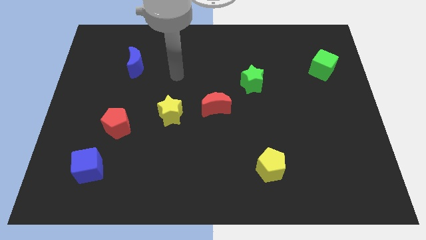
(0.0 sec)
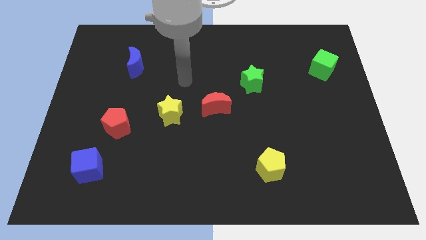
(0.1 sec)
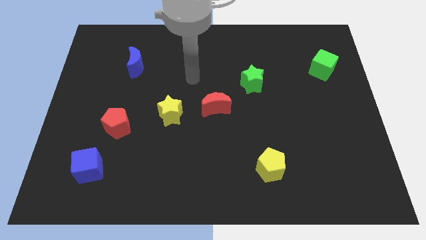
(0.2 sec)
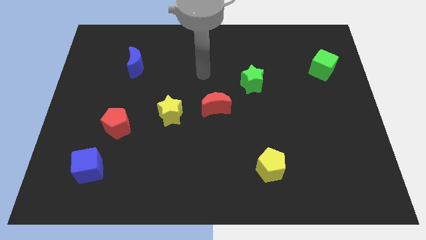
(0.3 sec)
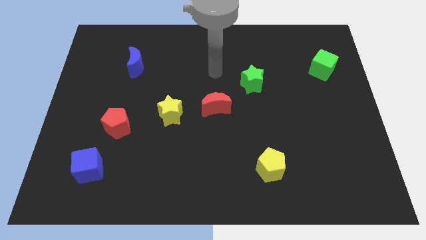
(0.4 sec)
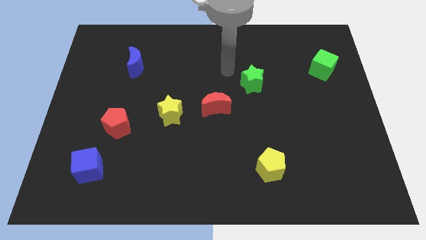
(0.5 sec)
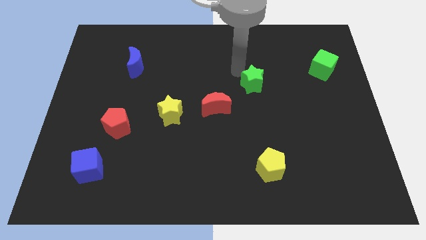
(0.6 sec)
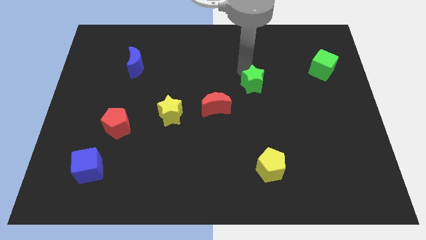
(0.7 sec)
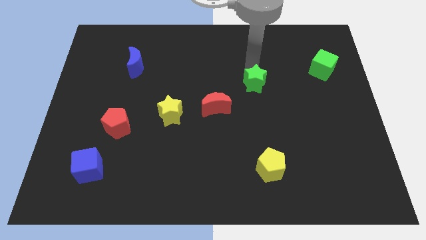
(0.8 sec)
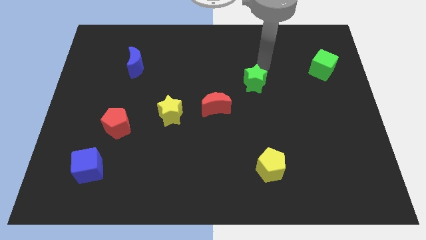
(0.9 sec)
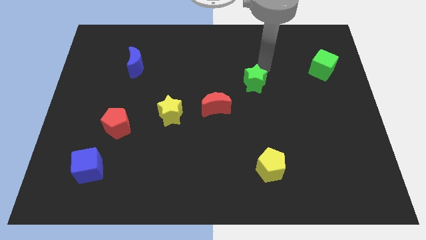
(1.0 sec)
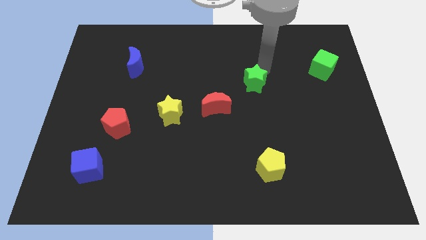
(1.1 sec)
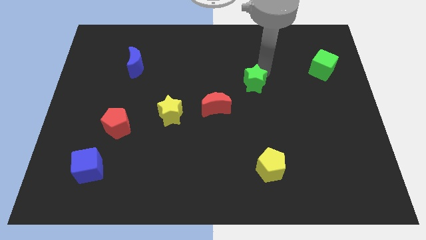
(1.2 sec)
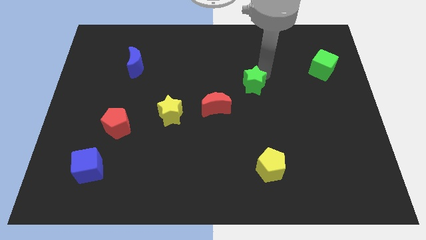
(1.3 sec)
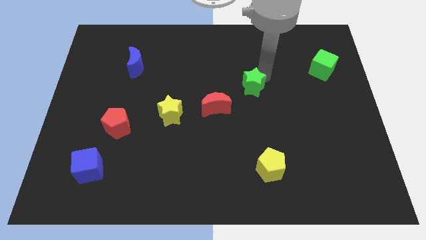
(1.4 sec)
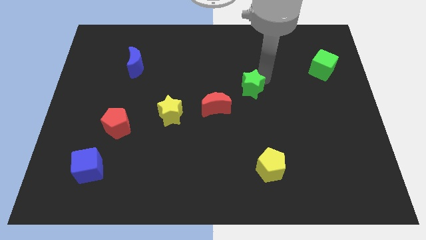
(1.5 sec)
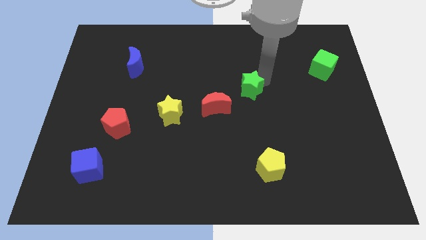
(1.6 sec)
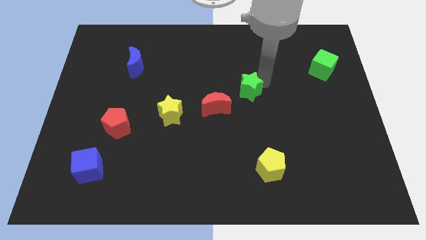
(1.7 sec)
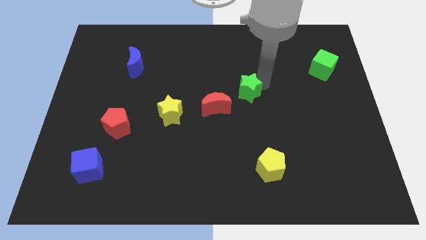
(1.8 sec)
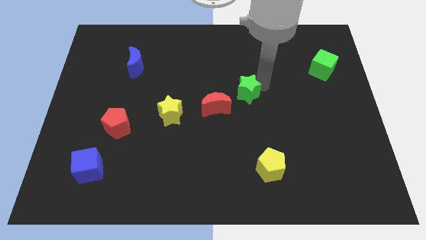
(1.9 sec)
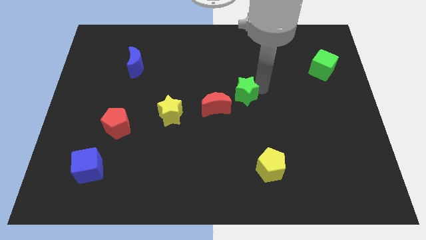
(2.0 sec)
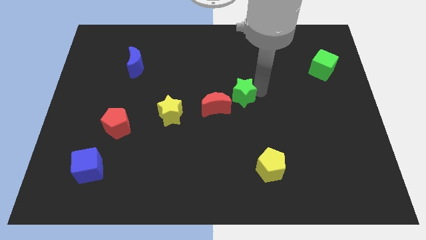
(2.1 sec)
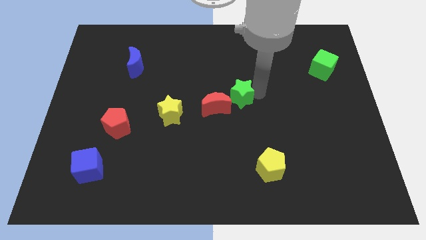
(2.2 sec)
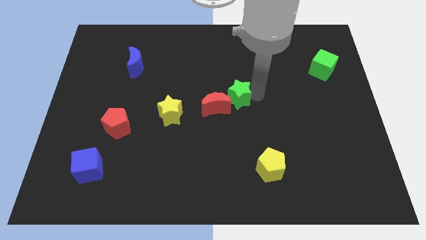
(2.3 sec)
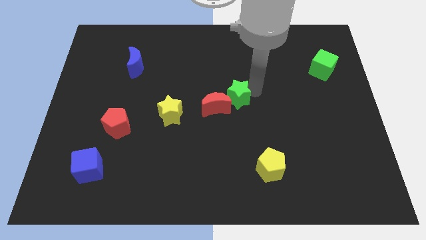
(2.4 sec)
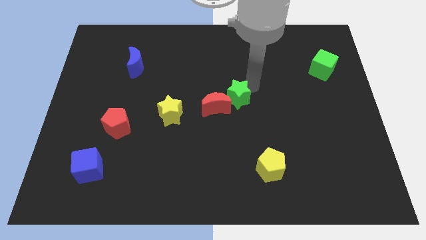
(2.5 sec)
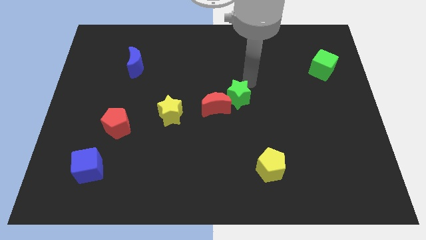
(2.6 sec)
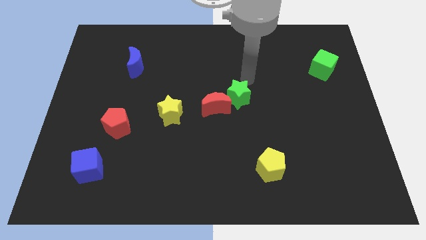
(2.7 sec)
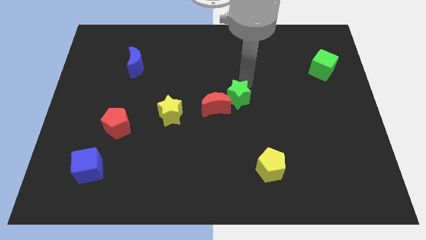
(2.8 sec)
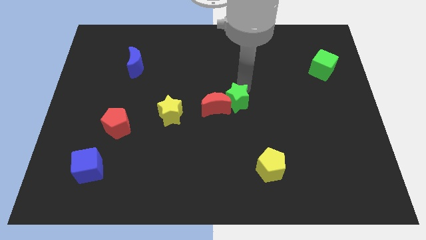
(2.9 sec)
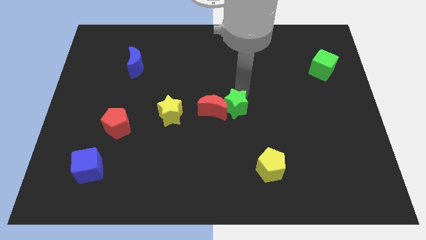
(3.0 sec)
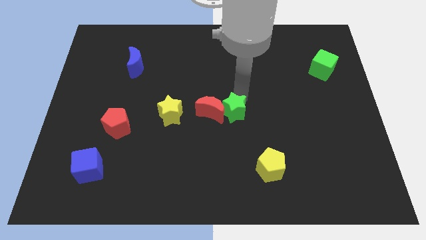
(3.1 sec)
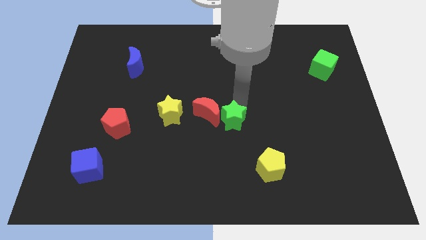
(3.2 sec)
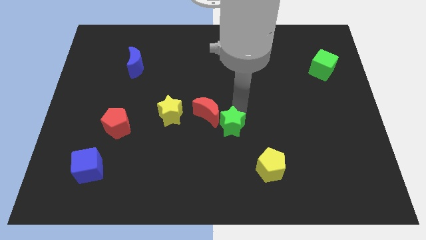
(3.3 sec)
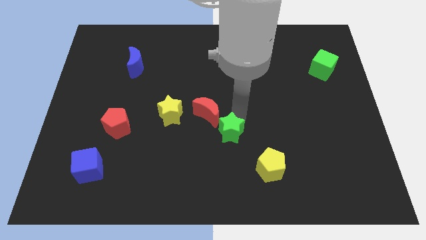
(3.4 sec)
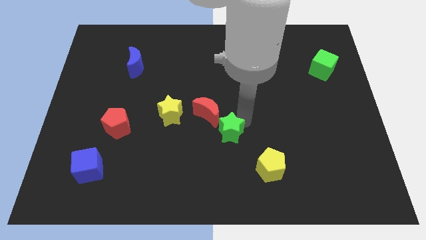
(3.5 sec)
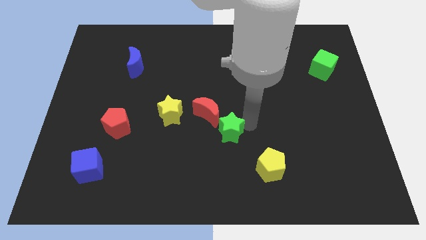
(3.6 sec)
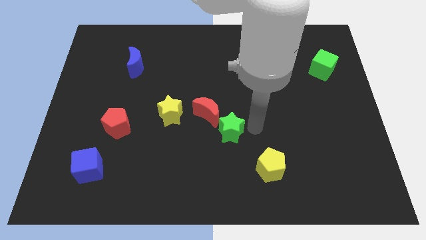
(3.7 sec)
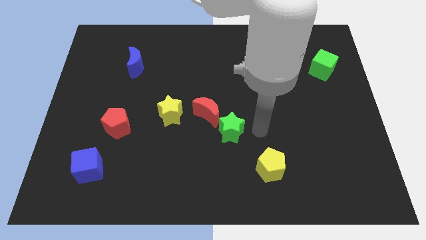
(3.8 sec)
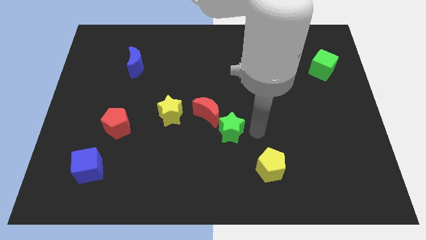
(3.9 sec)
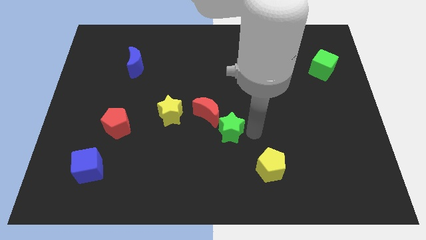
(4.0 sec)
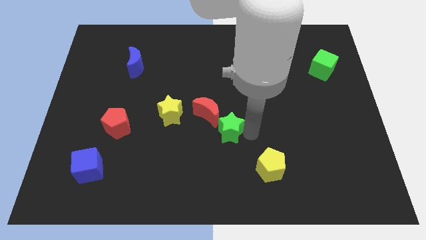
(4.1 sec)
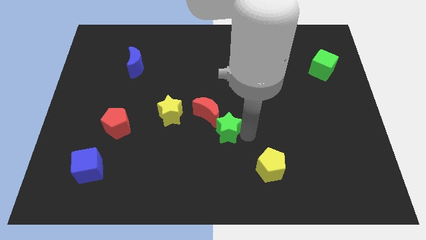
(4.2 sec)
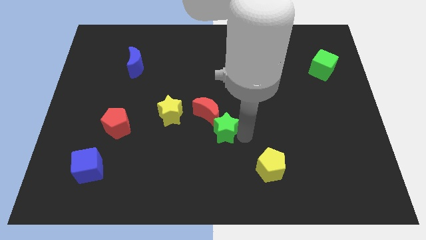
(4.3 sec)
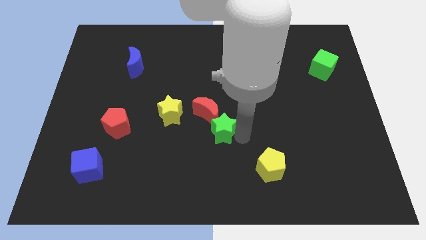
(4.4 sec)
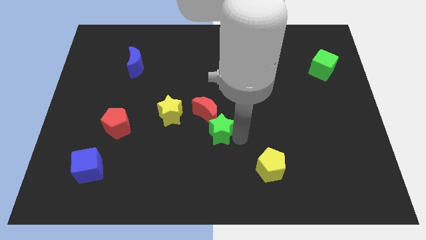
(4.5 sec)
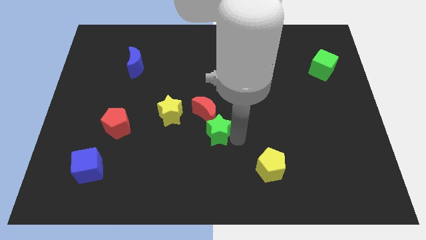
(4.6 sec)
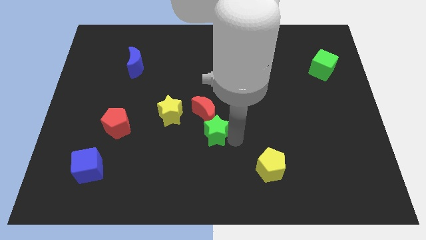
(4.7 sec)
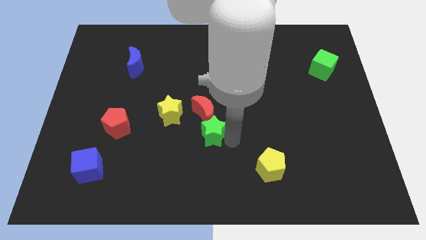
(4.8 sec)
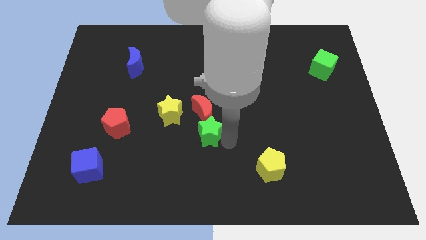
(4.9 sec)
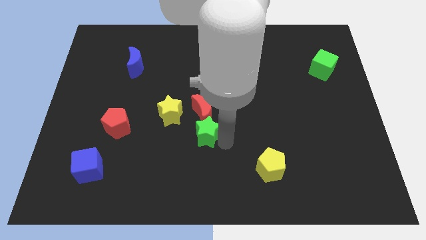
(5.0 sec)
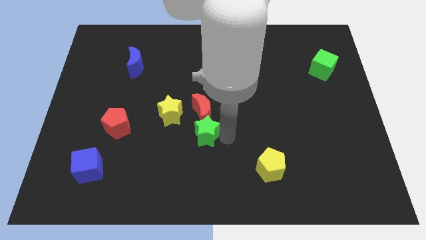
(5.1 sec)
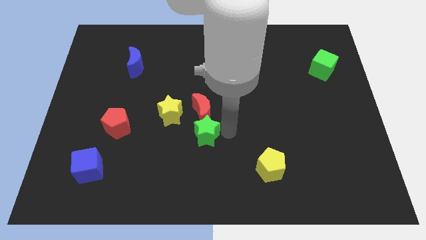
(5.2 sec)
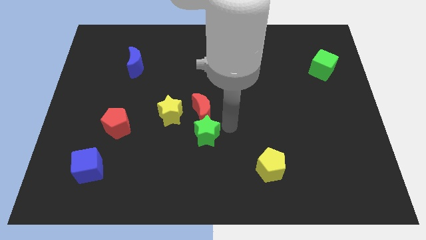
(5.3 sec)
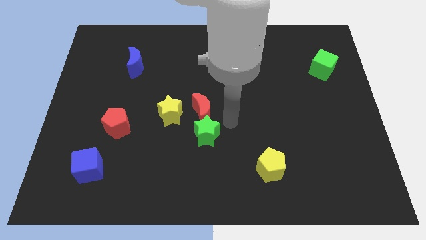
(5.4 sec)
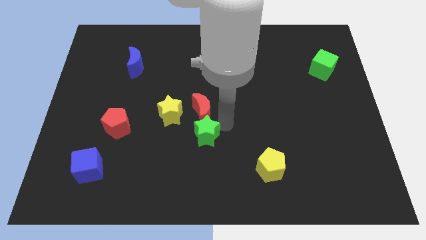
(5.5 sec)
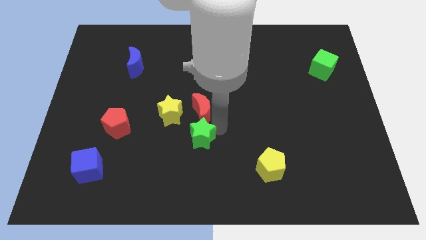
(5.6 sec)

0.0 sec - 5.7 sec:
move the green star downwards and left diagonally

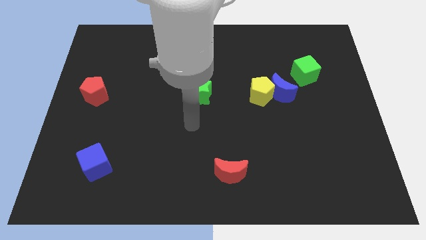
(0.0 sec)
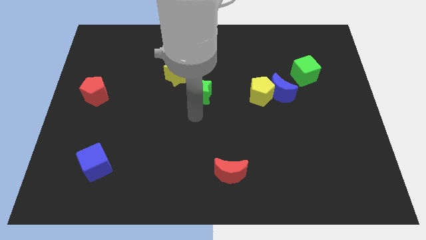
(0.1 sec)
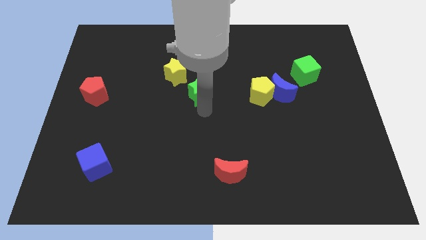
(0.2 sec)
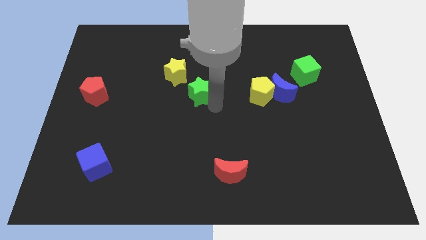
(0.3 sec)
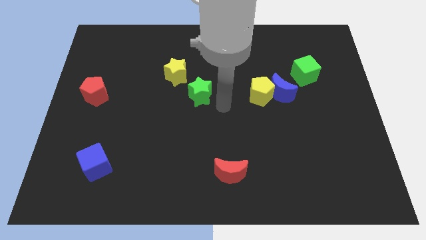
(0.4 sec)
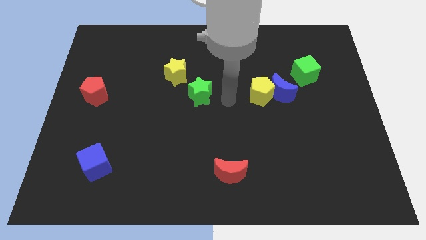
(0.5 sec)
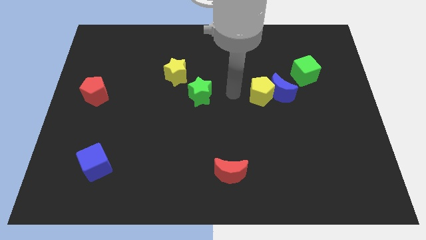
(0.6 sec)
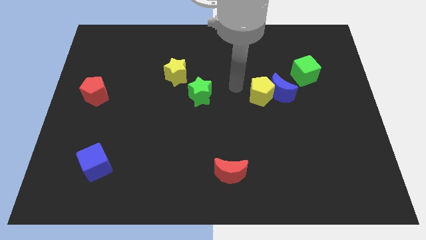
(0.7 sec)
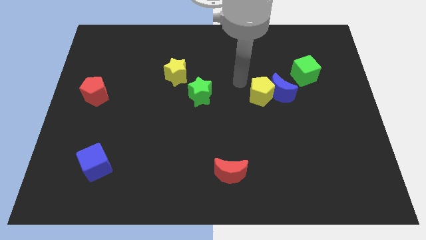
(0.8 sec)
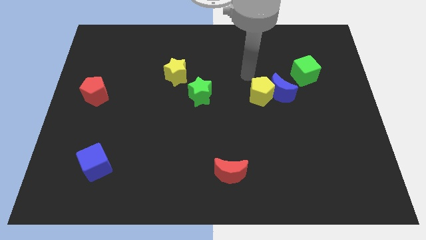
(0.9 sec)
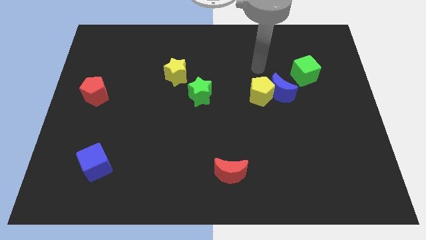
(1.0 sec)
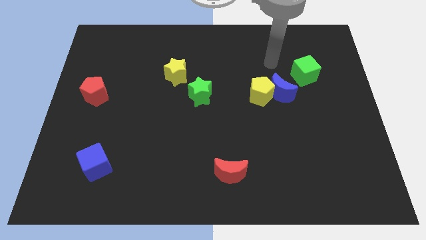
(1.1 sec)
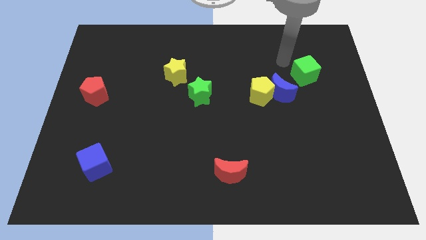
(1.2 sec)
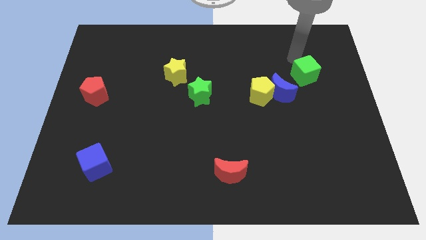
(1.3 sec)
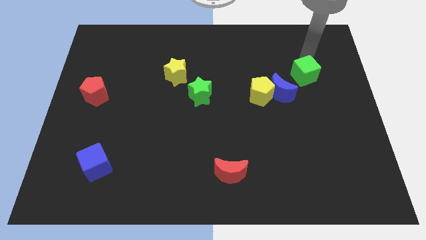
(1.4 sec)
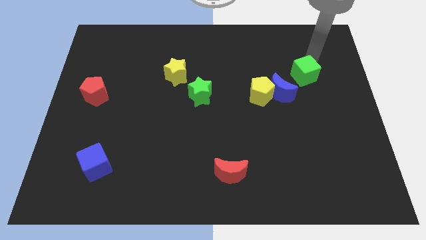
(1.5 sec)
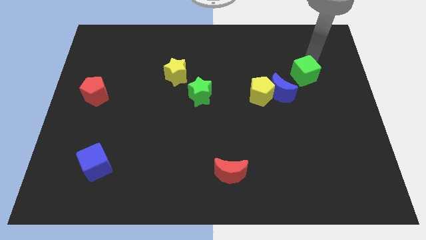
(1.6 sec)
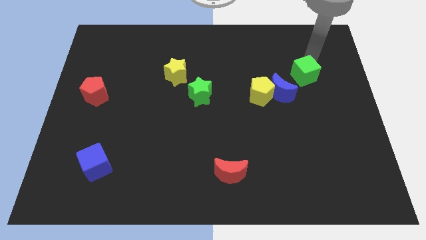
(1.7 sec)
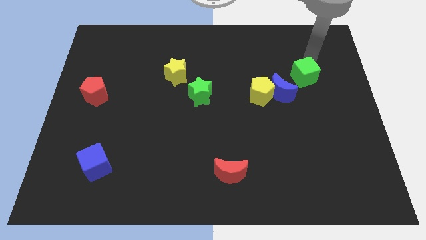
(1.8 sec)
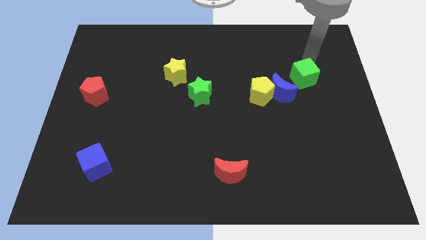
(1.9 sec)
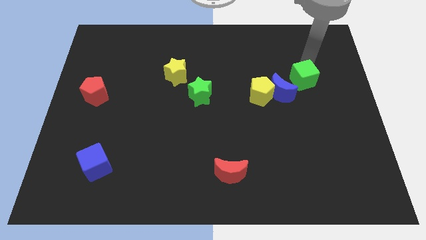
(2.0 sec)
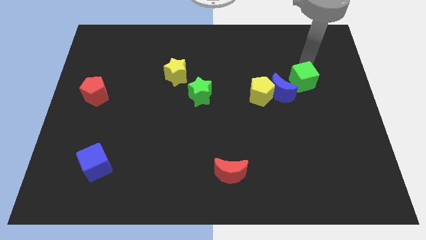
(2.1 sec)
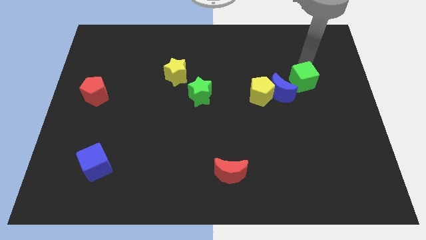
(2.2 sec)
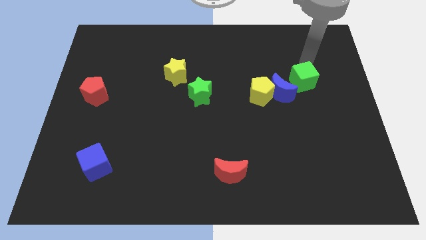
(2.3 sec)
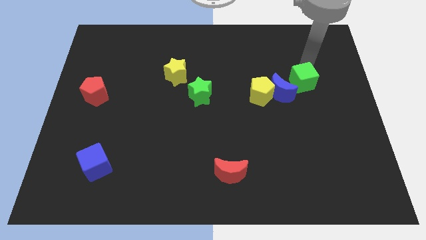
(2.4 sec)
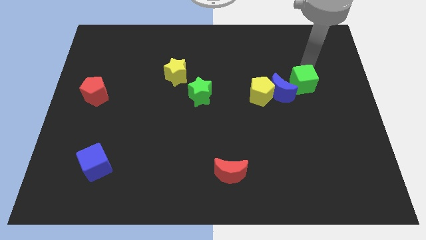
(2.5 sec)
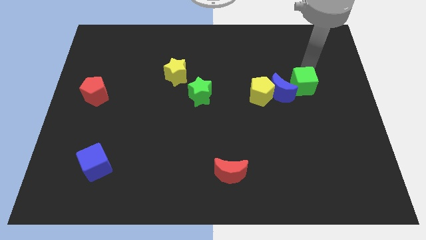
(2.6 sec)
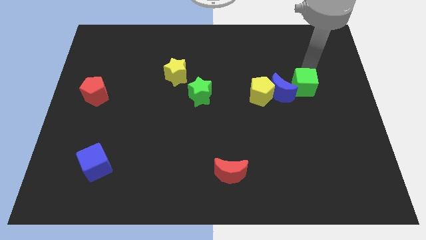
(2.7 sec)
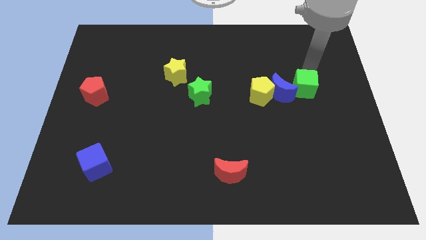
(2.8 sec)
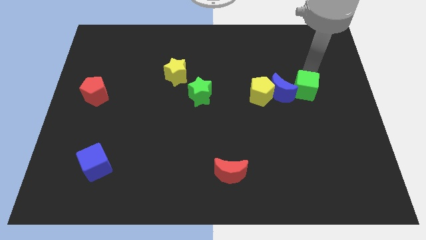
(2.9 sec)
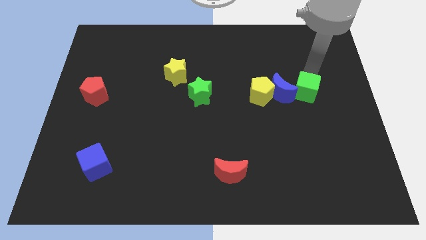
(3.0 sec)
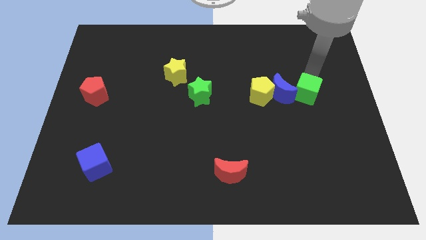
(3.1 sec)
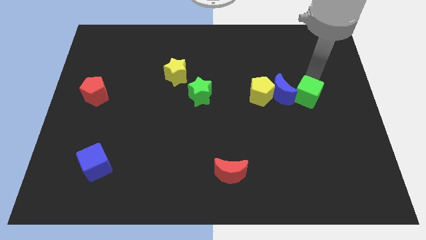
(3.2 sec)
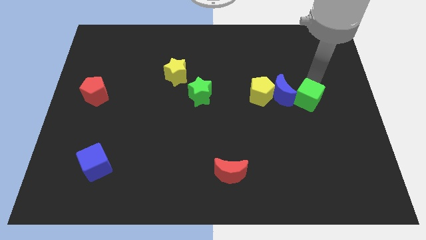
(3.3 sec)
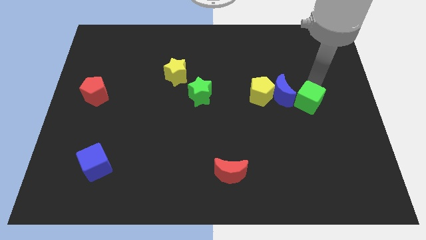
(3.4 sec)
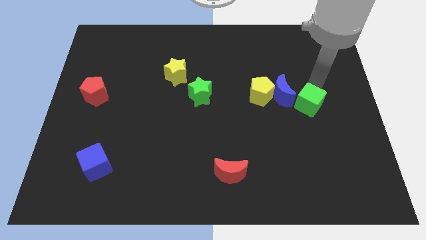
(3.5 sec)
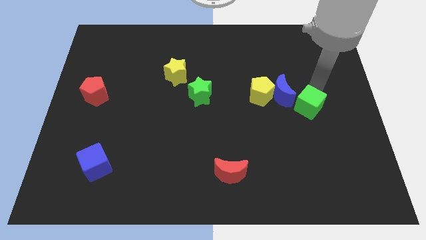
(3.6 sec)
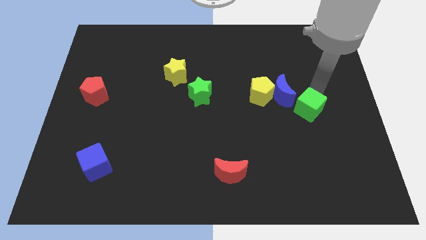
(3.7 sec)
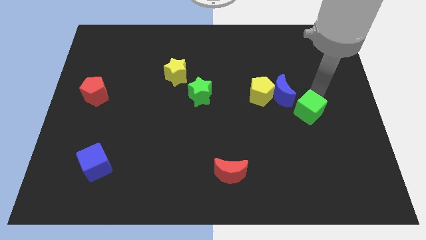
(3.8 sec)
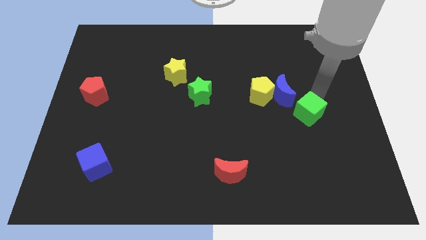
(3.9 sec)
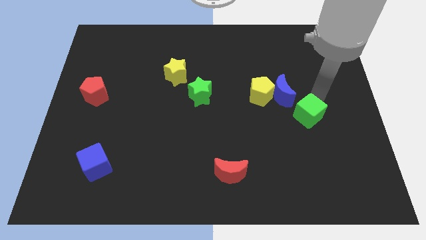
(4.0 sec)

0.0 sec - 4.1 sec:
push the green cube down and then to the left a little
